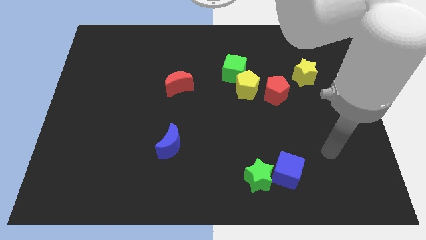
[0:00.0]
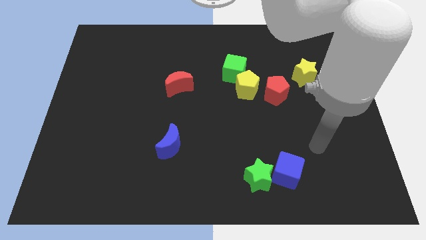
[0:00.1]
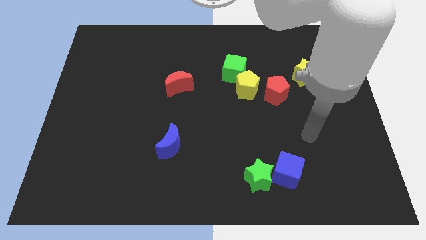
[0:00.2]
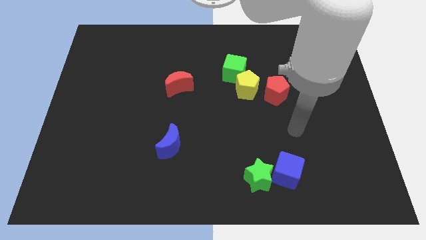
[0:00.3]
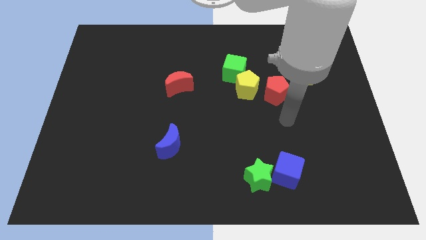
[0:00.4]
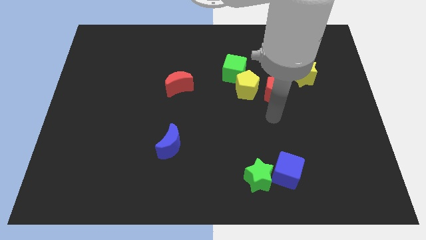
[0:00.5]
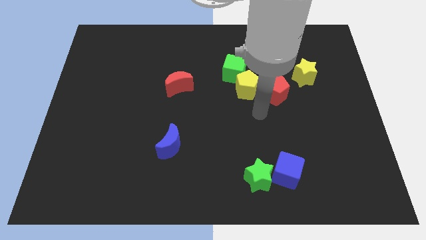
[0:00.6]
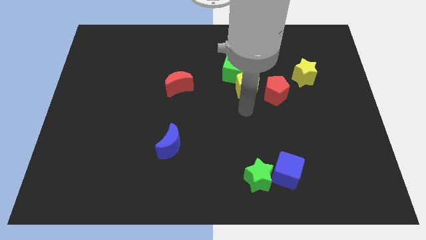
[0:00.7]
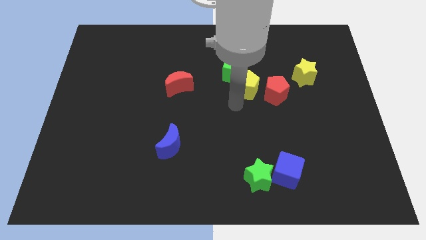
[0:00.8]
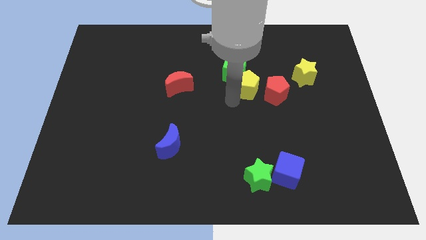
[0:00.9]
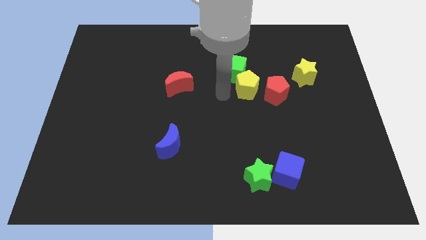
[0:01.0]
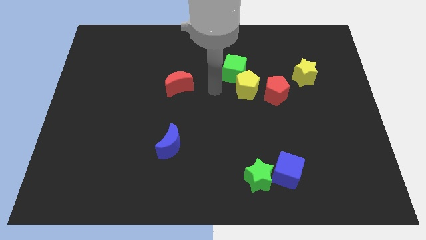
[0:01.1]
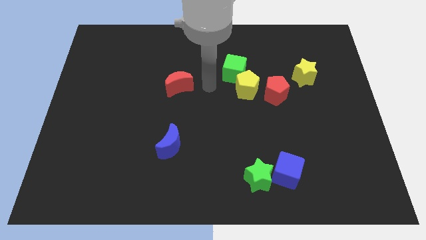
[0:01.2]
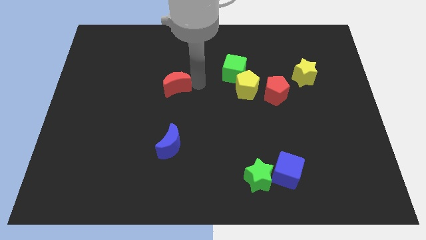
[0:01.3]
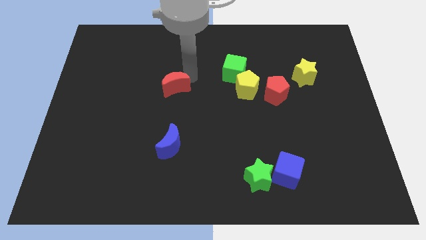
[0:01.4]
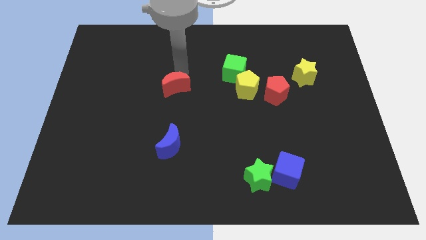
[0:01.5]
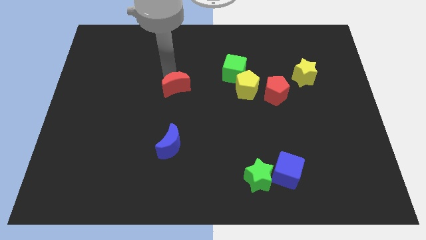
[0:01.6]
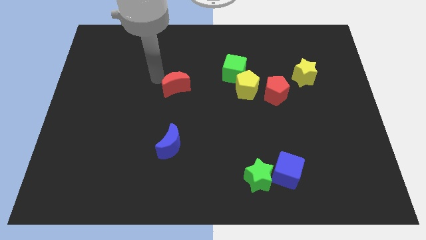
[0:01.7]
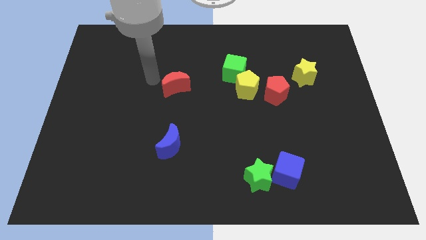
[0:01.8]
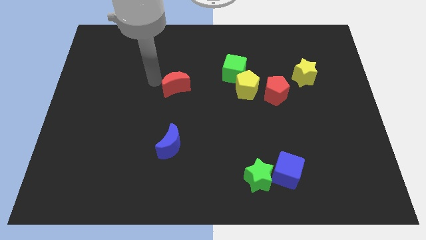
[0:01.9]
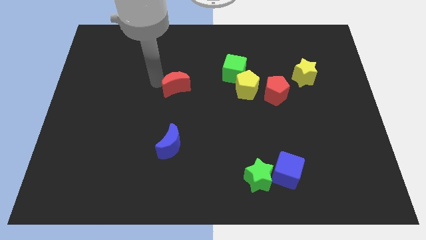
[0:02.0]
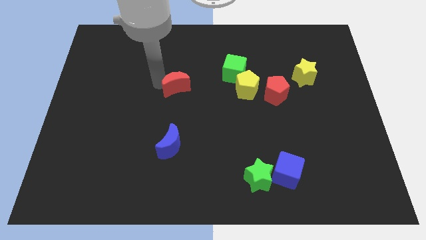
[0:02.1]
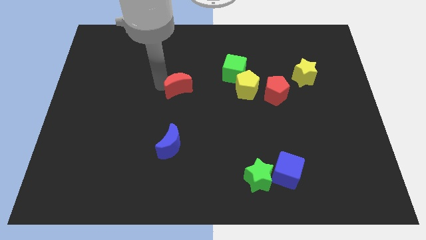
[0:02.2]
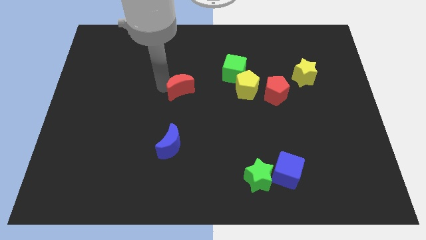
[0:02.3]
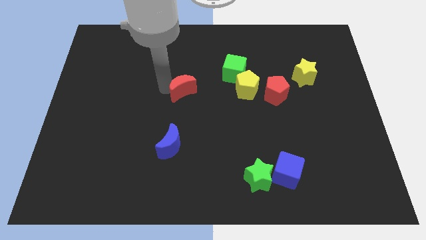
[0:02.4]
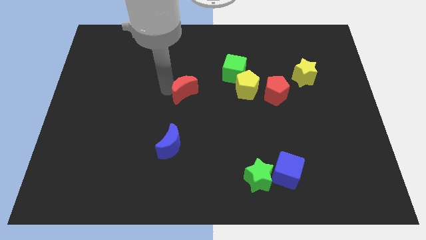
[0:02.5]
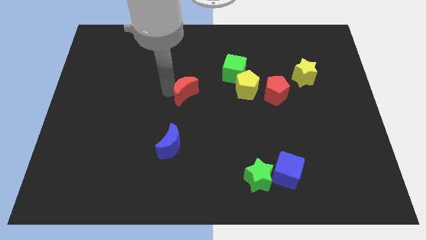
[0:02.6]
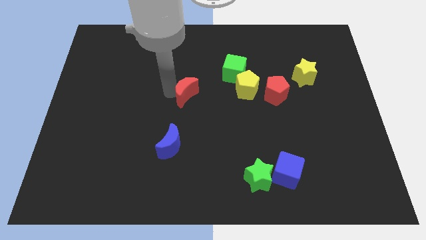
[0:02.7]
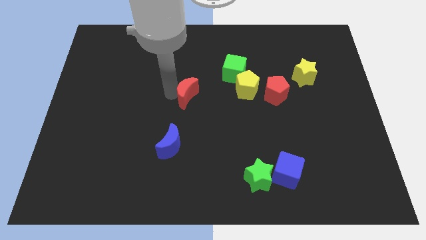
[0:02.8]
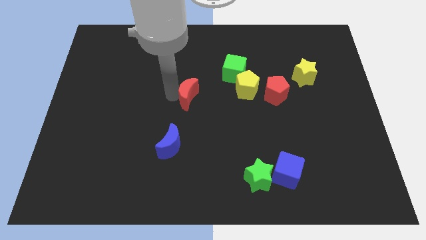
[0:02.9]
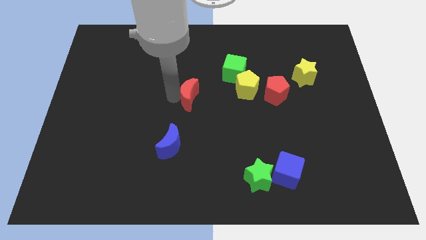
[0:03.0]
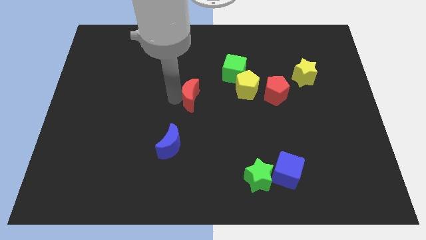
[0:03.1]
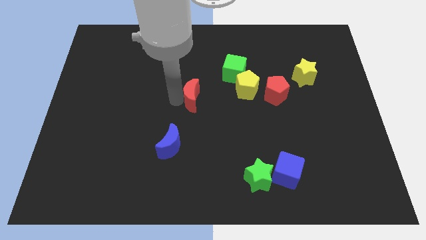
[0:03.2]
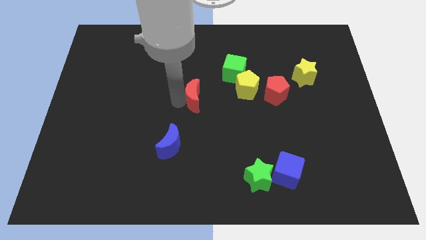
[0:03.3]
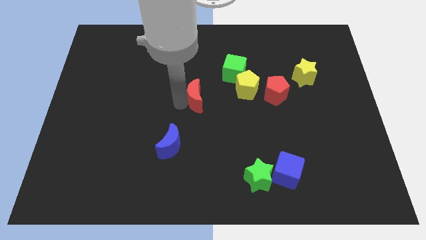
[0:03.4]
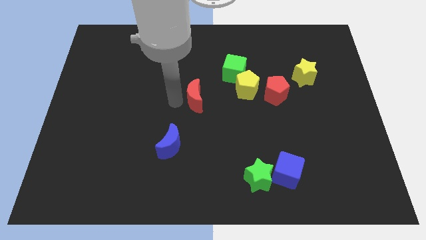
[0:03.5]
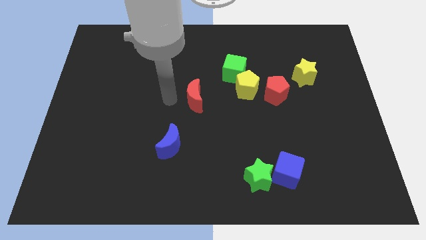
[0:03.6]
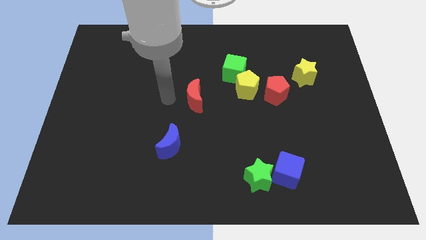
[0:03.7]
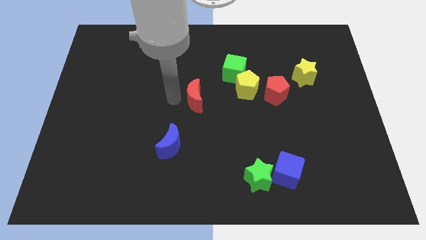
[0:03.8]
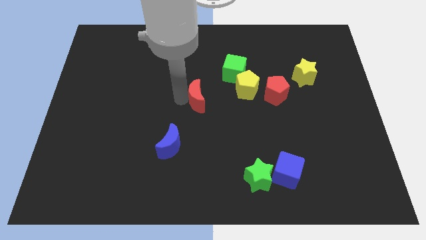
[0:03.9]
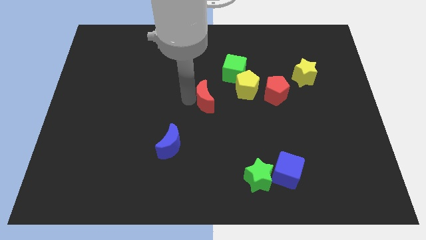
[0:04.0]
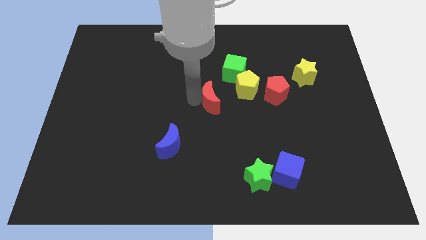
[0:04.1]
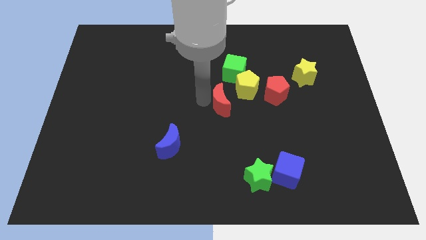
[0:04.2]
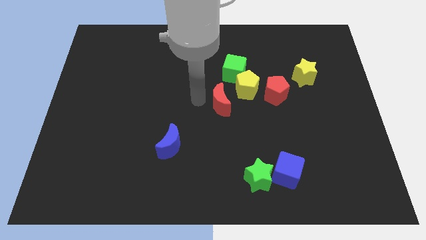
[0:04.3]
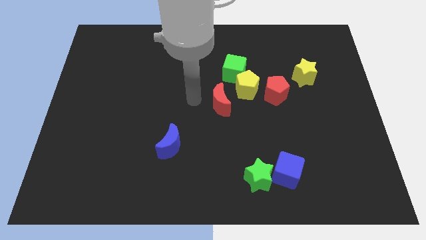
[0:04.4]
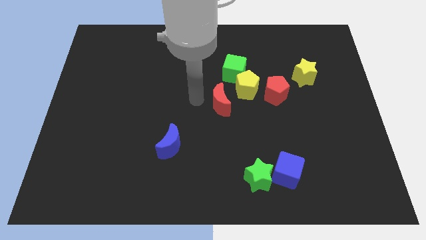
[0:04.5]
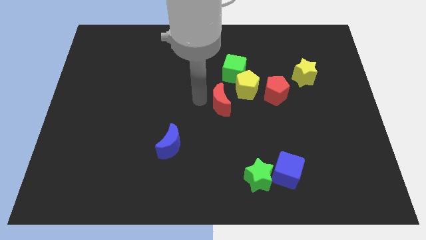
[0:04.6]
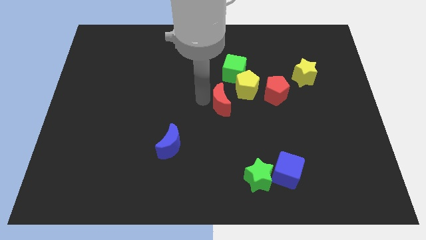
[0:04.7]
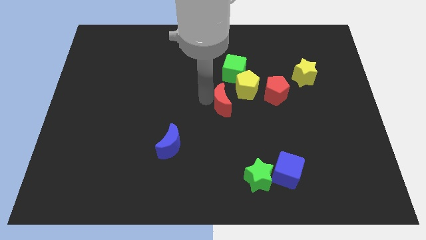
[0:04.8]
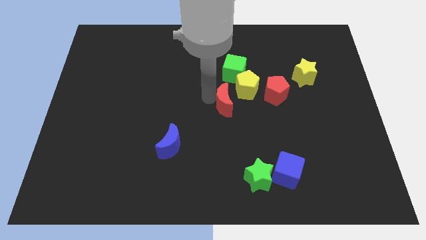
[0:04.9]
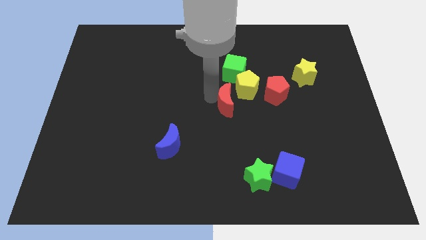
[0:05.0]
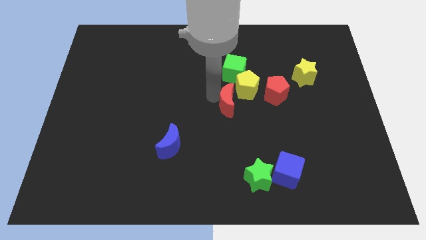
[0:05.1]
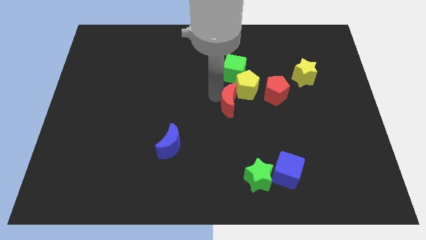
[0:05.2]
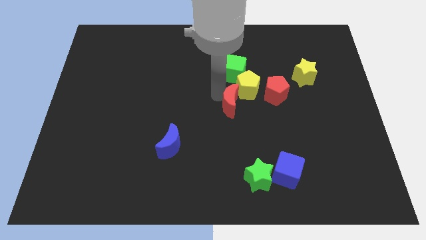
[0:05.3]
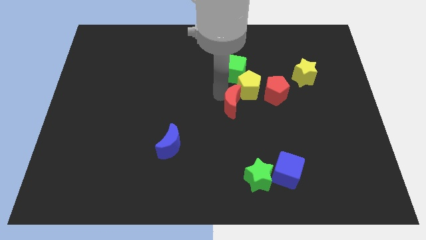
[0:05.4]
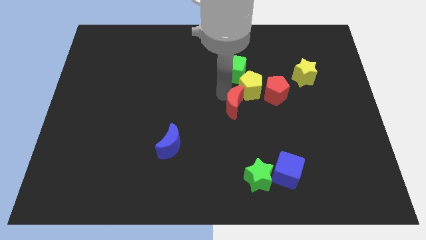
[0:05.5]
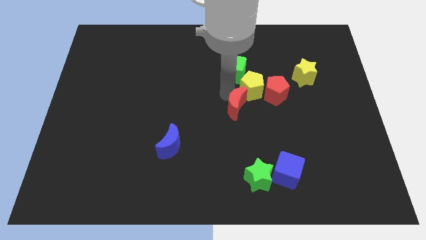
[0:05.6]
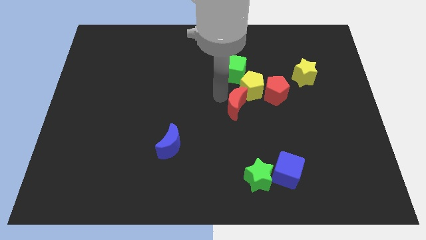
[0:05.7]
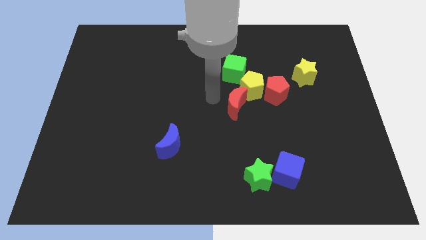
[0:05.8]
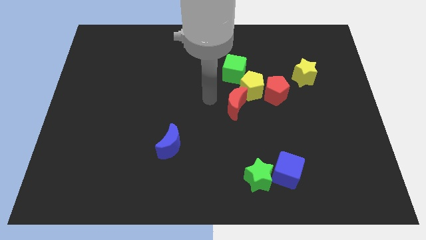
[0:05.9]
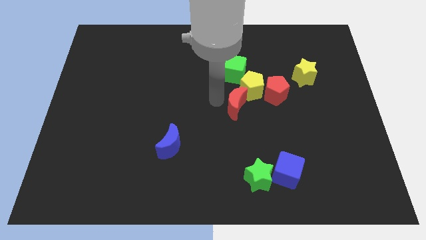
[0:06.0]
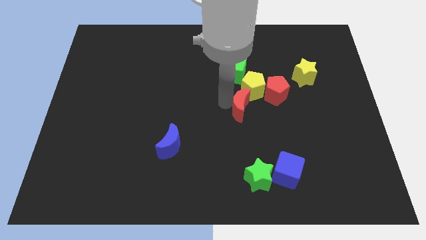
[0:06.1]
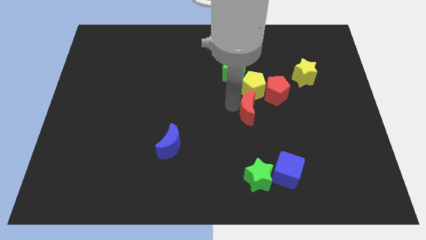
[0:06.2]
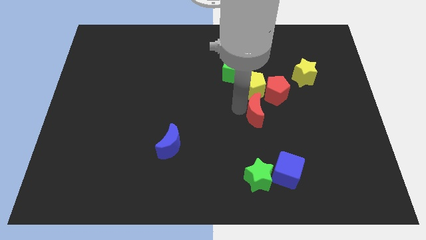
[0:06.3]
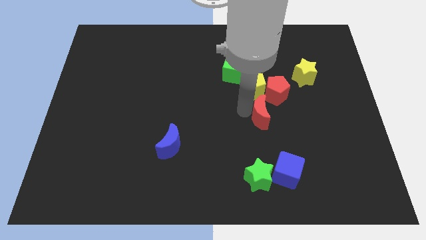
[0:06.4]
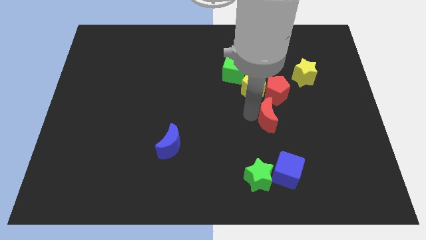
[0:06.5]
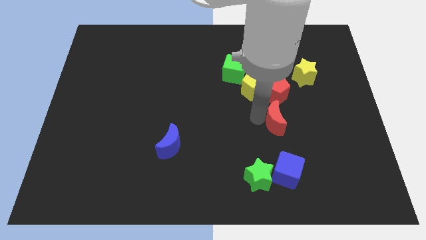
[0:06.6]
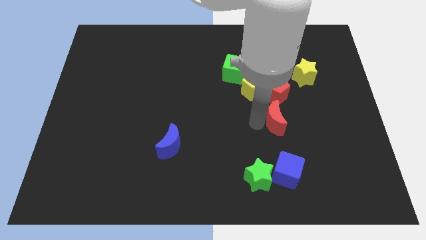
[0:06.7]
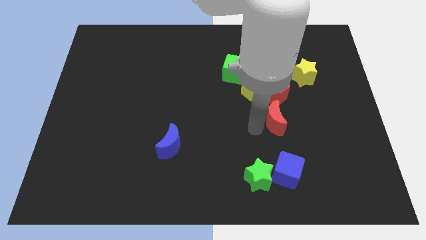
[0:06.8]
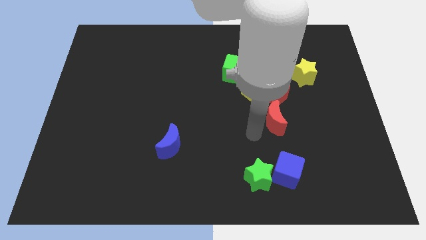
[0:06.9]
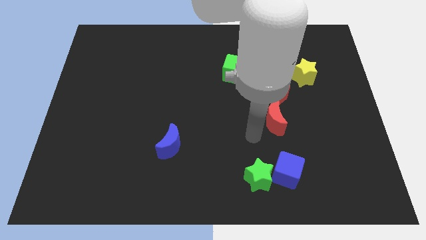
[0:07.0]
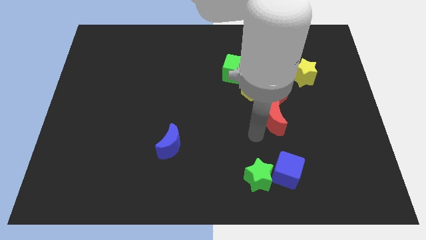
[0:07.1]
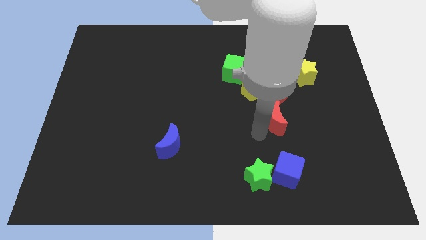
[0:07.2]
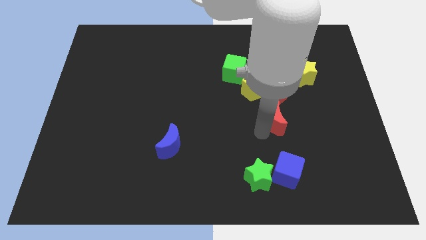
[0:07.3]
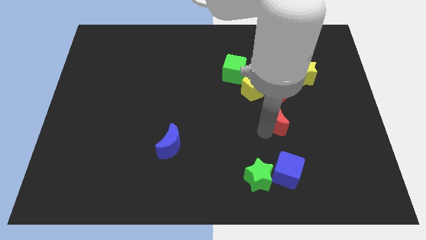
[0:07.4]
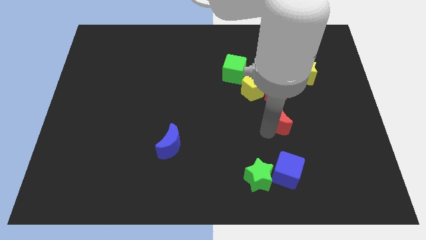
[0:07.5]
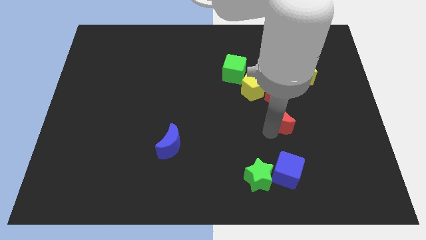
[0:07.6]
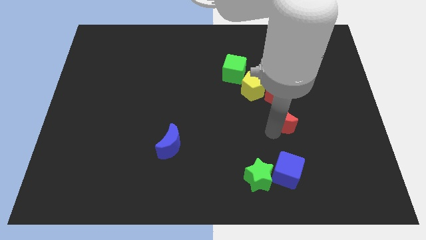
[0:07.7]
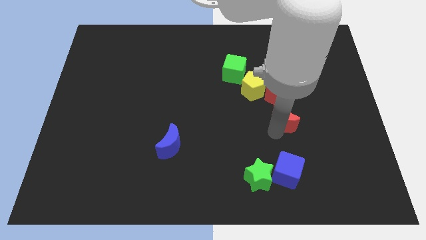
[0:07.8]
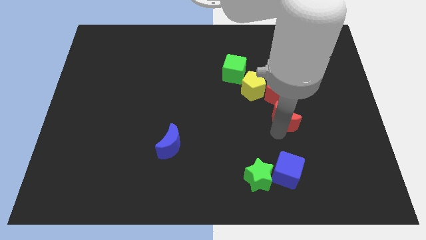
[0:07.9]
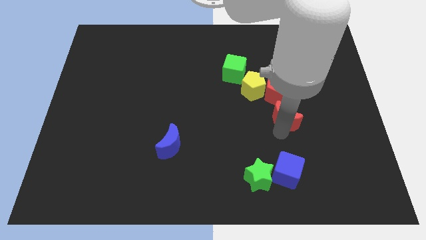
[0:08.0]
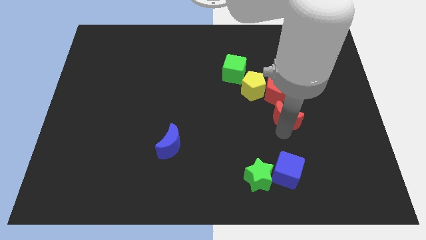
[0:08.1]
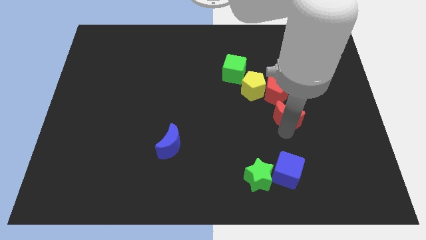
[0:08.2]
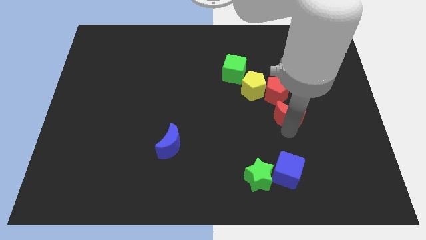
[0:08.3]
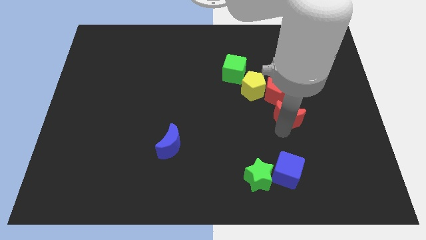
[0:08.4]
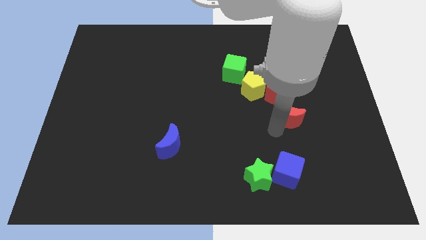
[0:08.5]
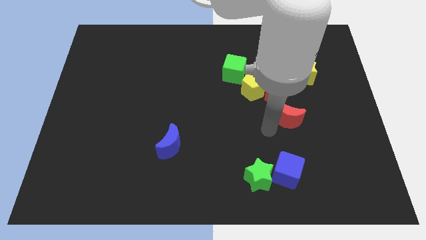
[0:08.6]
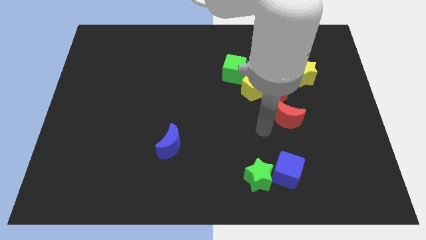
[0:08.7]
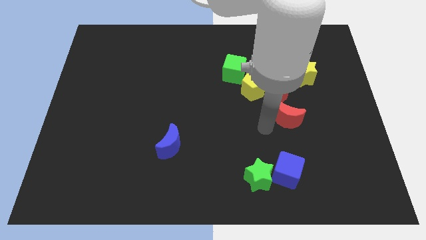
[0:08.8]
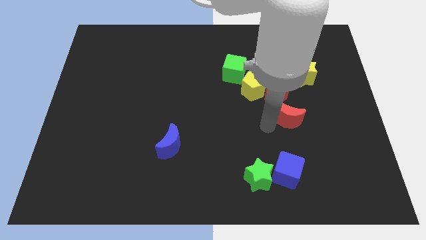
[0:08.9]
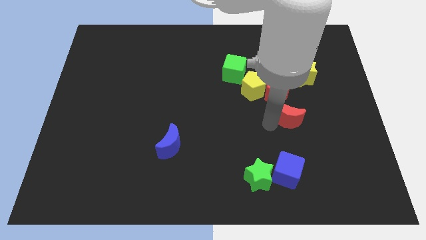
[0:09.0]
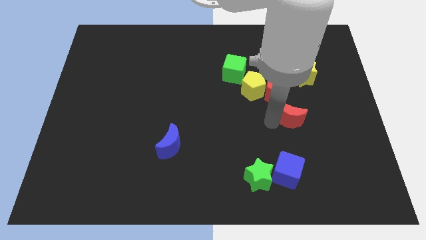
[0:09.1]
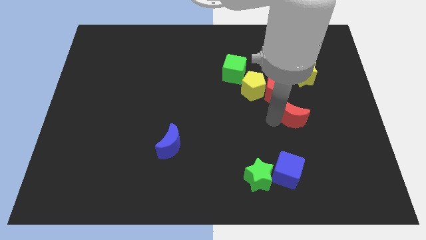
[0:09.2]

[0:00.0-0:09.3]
move the red moon below the yellow star
